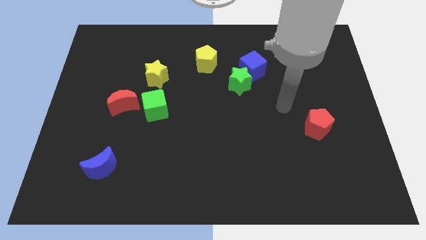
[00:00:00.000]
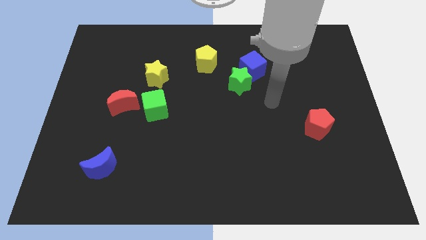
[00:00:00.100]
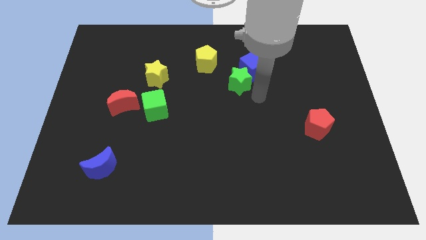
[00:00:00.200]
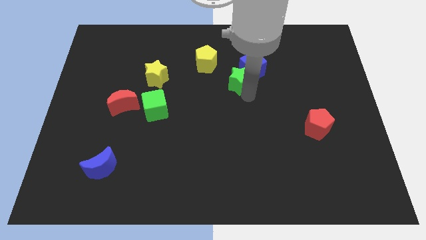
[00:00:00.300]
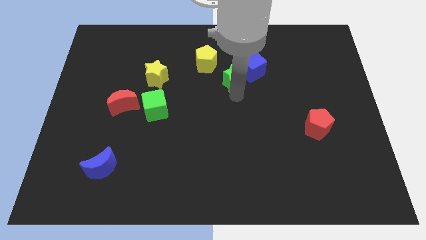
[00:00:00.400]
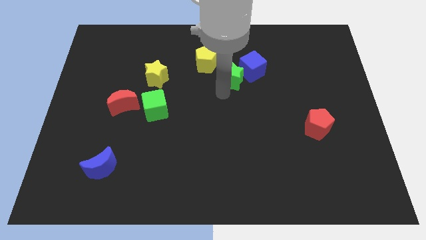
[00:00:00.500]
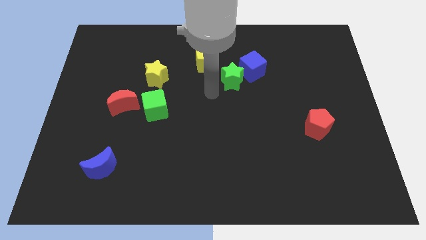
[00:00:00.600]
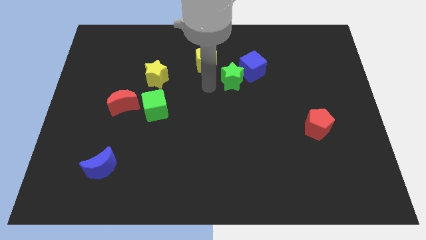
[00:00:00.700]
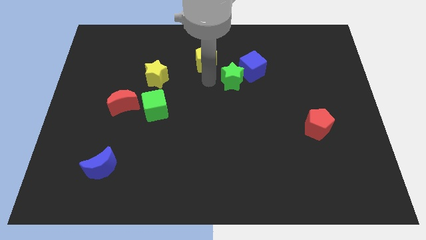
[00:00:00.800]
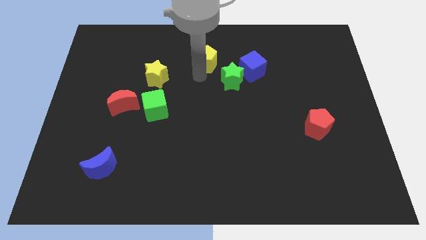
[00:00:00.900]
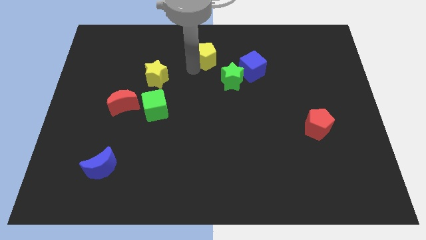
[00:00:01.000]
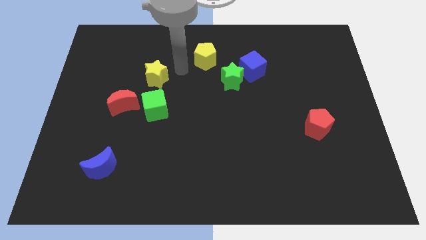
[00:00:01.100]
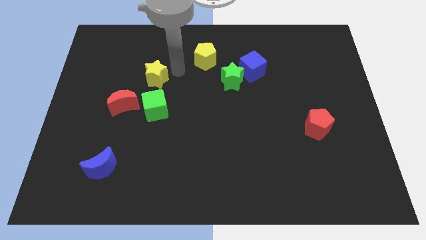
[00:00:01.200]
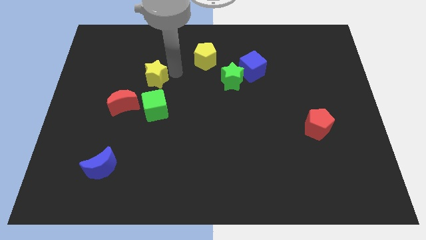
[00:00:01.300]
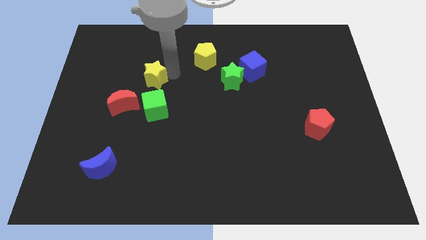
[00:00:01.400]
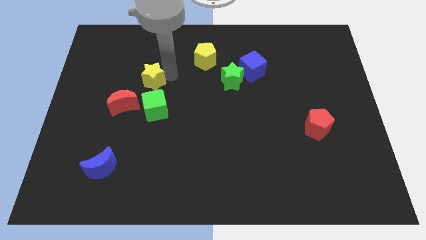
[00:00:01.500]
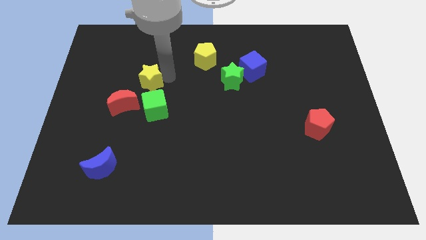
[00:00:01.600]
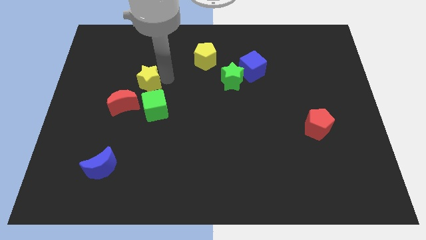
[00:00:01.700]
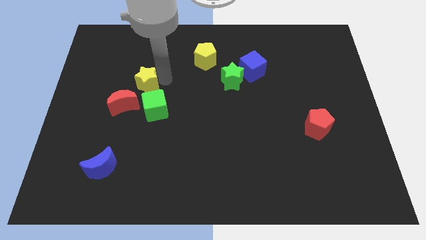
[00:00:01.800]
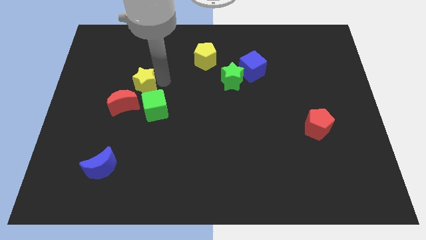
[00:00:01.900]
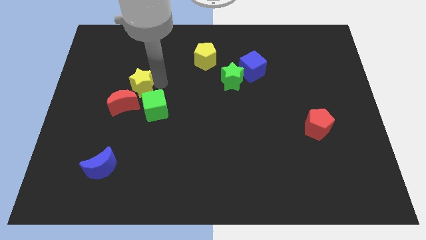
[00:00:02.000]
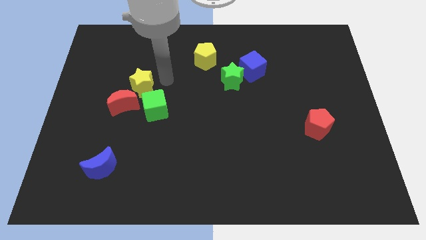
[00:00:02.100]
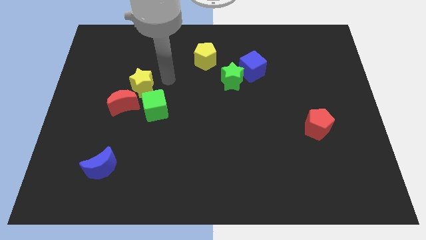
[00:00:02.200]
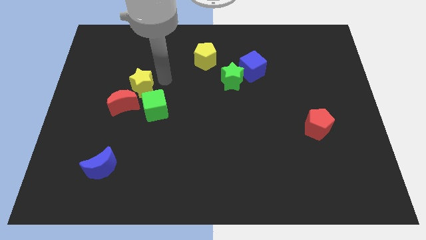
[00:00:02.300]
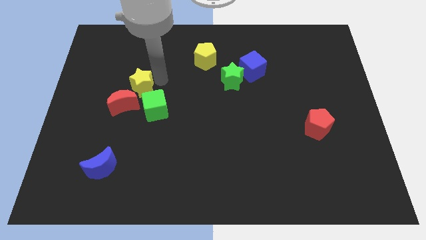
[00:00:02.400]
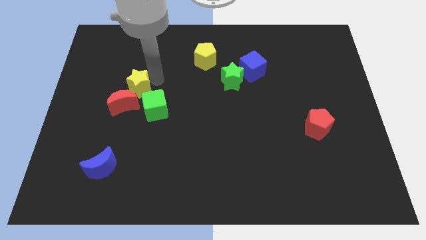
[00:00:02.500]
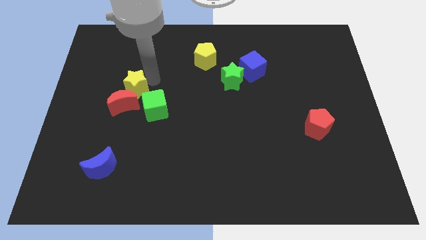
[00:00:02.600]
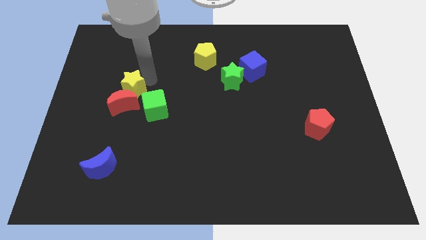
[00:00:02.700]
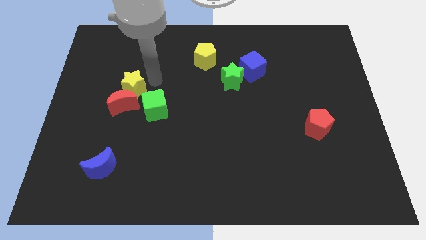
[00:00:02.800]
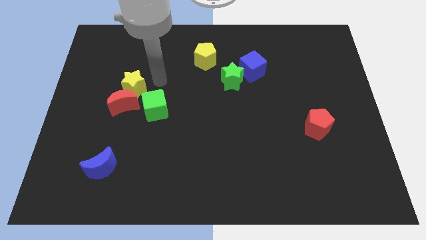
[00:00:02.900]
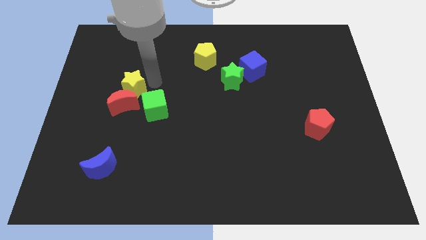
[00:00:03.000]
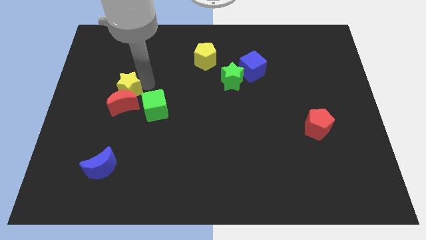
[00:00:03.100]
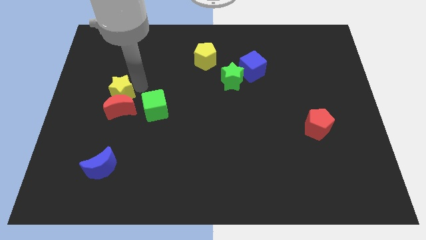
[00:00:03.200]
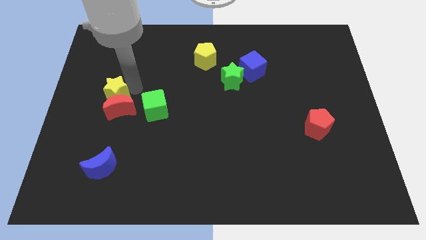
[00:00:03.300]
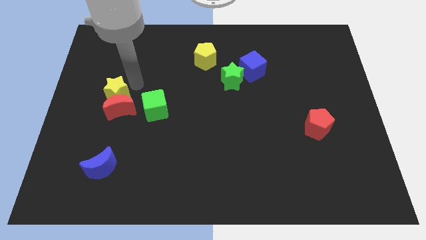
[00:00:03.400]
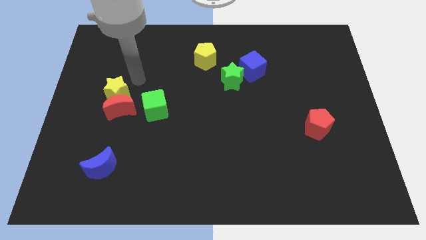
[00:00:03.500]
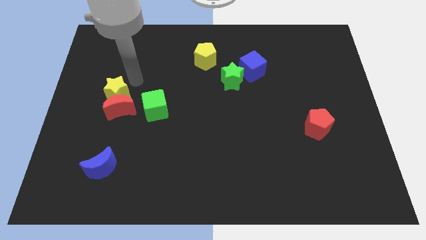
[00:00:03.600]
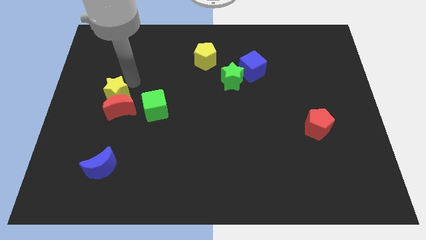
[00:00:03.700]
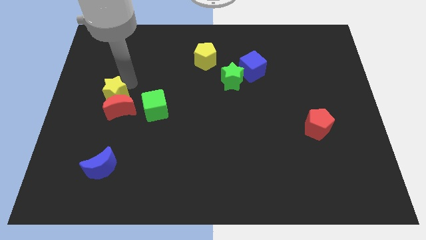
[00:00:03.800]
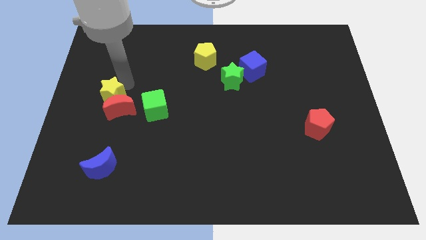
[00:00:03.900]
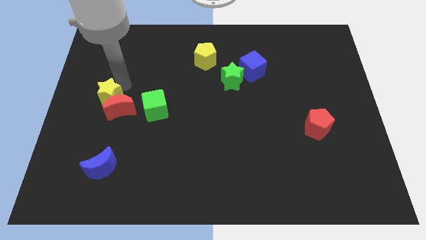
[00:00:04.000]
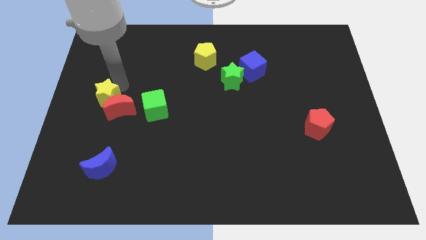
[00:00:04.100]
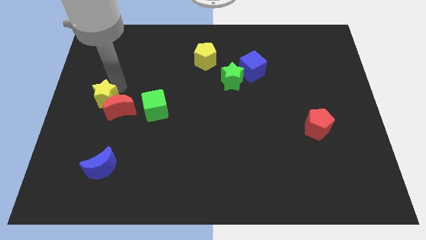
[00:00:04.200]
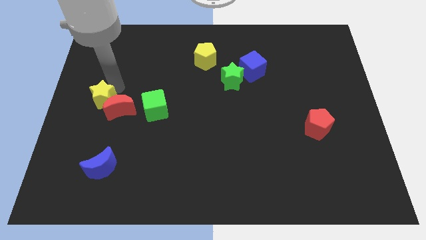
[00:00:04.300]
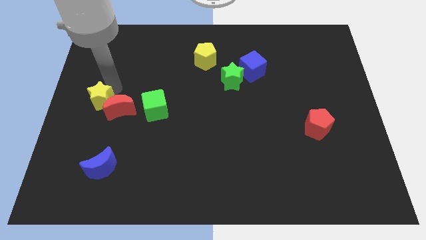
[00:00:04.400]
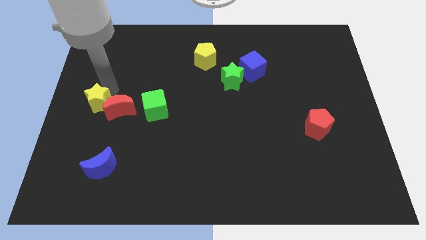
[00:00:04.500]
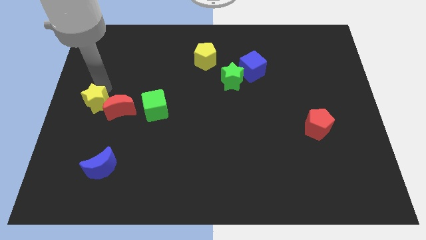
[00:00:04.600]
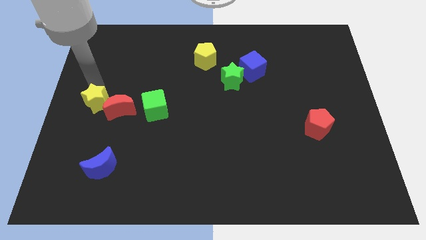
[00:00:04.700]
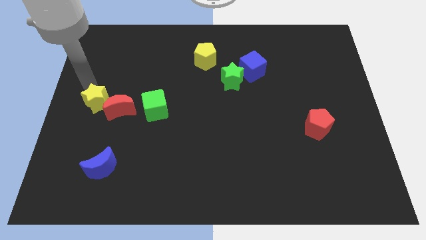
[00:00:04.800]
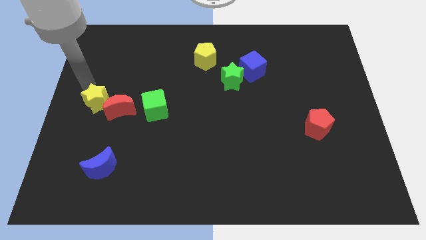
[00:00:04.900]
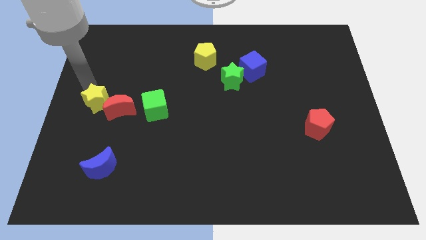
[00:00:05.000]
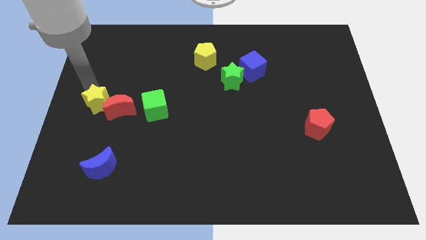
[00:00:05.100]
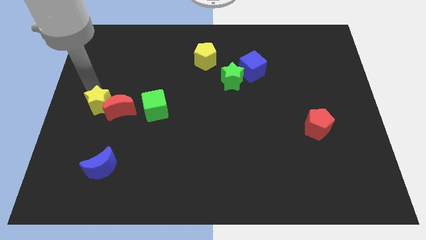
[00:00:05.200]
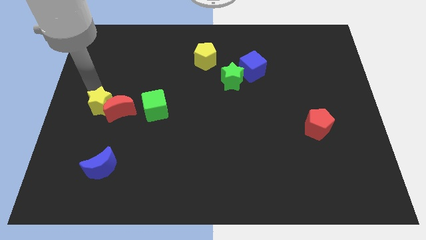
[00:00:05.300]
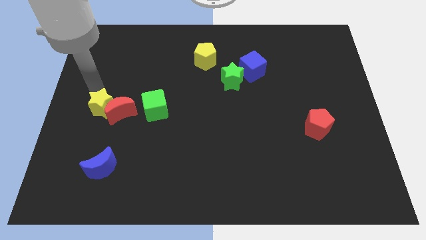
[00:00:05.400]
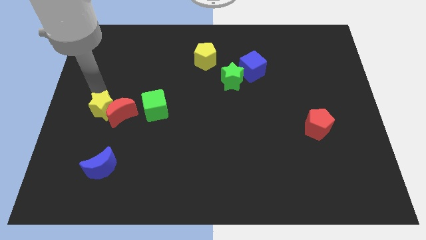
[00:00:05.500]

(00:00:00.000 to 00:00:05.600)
put the yellow star to the top side of the blue moon

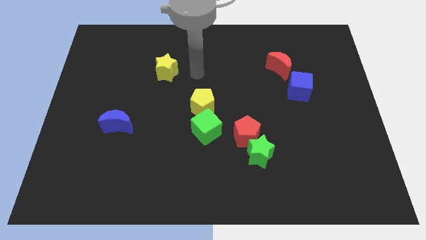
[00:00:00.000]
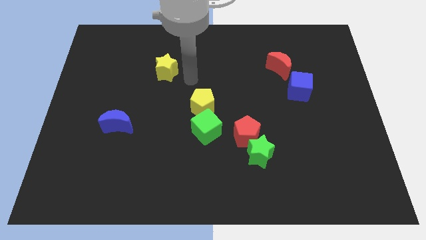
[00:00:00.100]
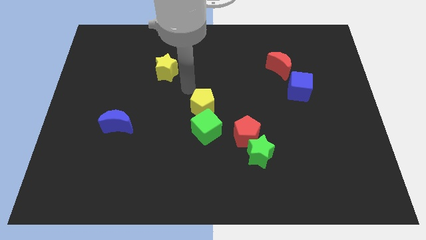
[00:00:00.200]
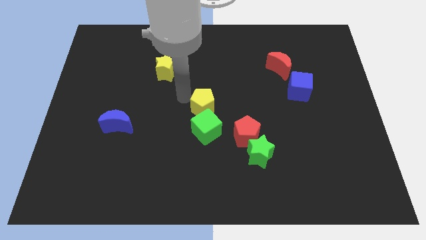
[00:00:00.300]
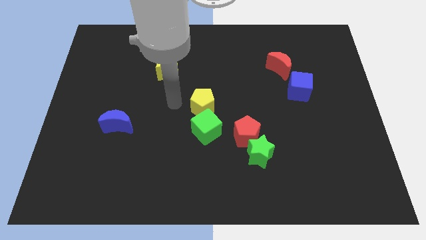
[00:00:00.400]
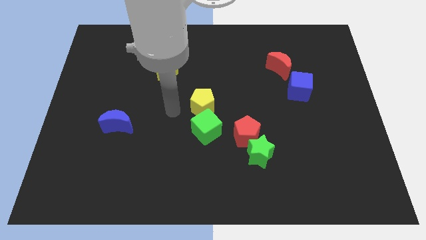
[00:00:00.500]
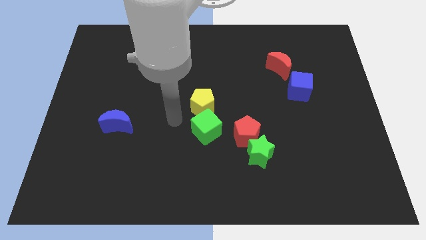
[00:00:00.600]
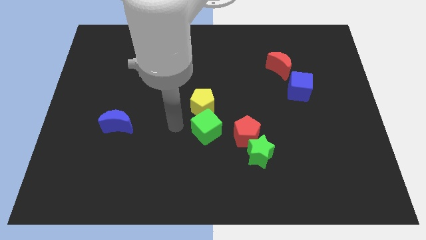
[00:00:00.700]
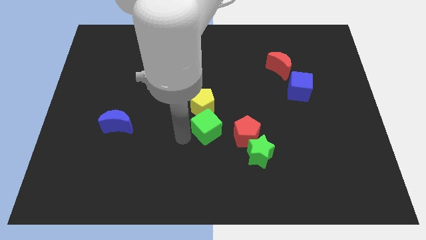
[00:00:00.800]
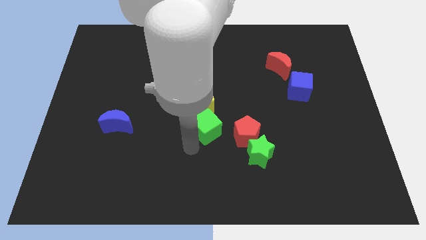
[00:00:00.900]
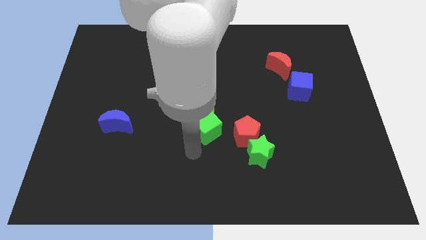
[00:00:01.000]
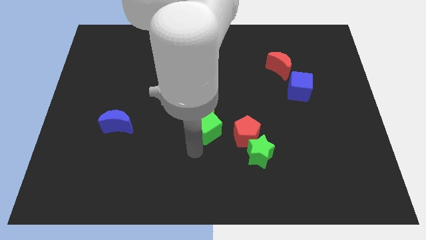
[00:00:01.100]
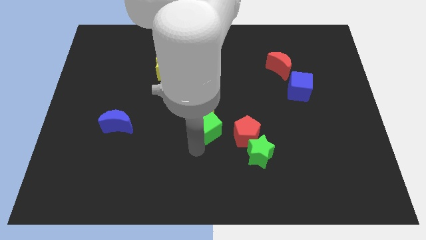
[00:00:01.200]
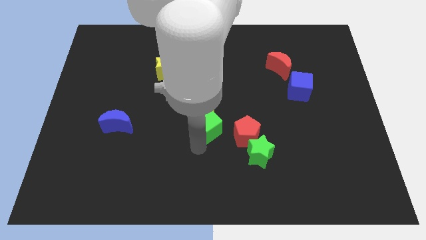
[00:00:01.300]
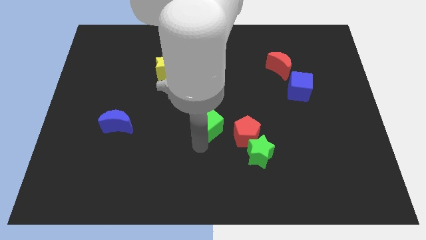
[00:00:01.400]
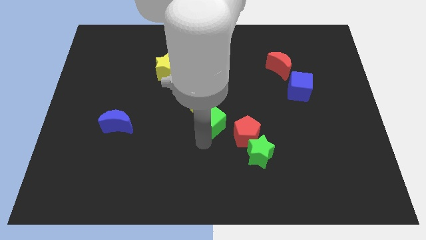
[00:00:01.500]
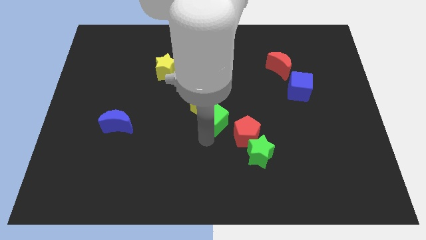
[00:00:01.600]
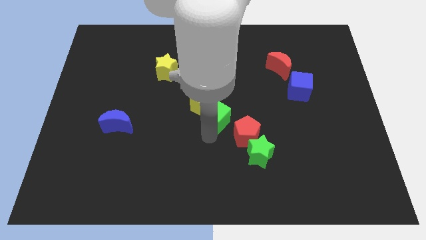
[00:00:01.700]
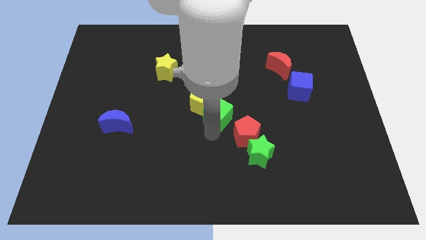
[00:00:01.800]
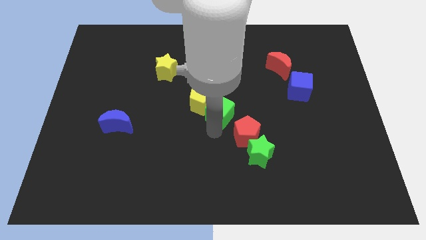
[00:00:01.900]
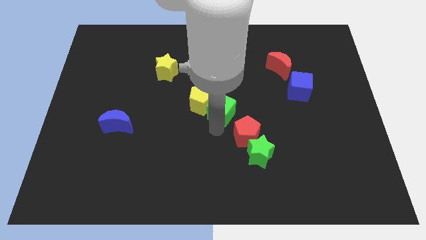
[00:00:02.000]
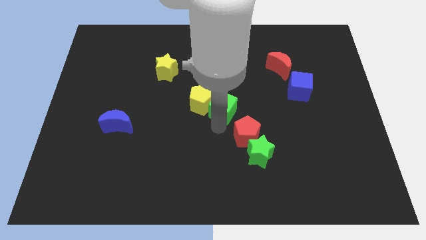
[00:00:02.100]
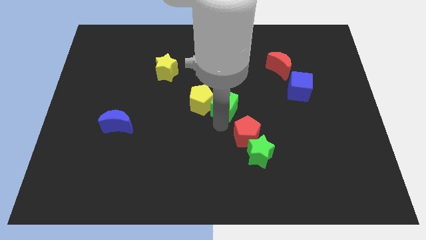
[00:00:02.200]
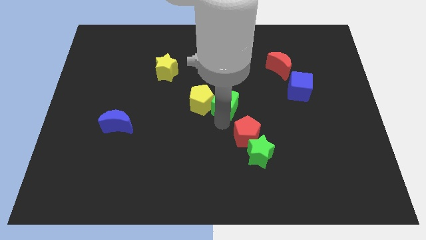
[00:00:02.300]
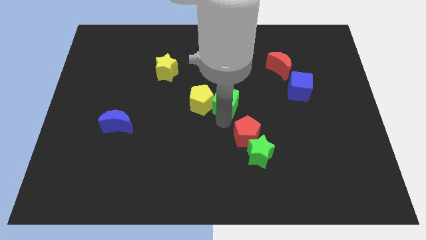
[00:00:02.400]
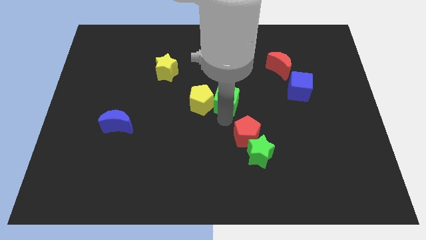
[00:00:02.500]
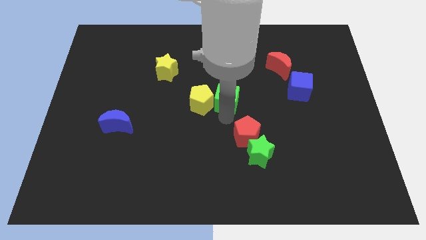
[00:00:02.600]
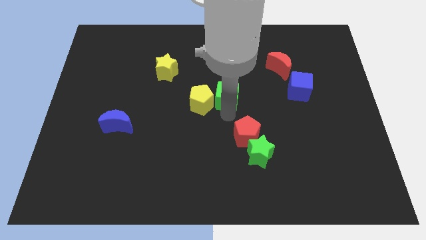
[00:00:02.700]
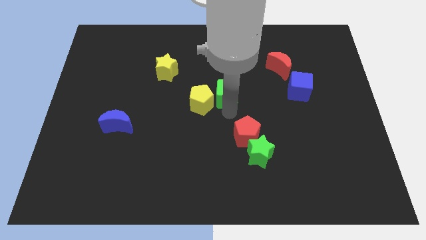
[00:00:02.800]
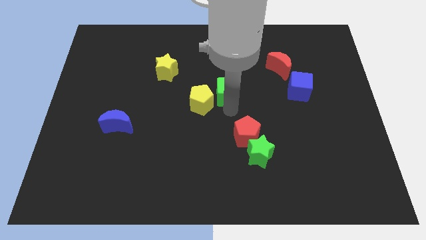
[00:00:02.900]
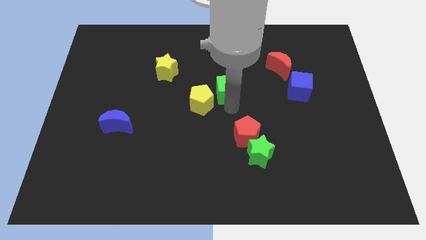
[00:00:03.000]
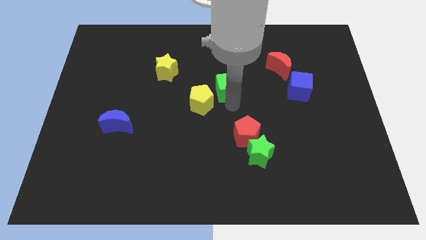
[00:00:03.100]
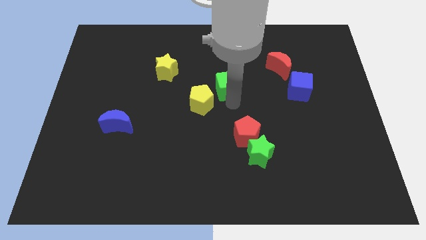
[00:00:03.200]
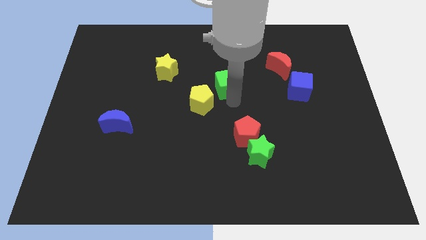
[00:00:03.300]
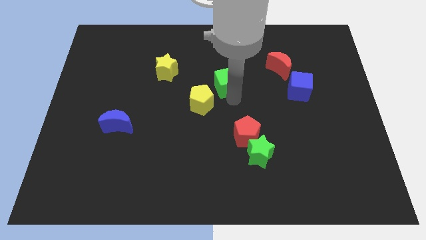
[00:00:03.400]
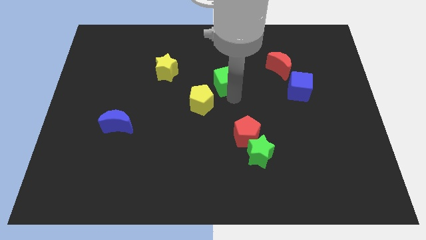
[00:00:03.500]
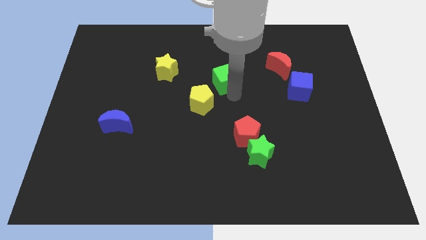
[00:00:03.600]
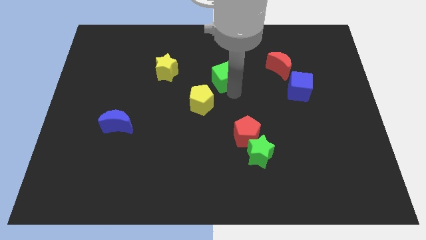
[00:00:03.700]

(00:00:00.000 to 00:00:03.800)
put the green cube to the right side of the yellow star
